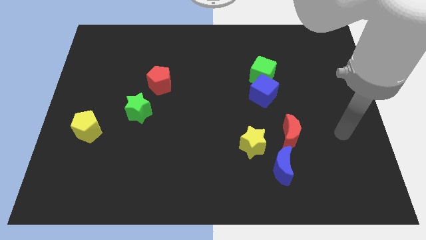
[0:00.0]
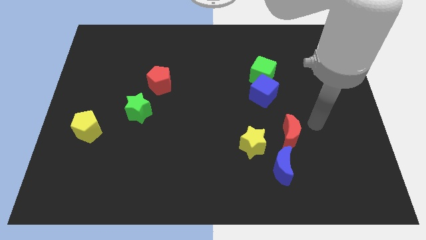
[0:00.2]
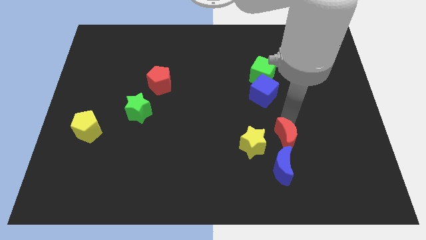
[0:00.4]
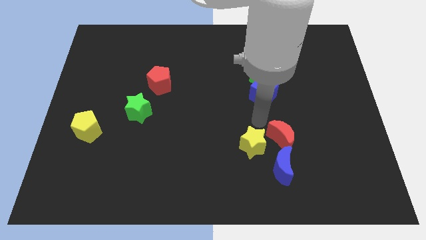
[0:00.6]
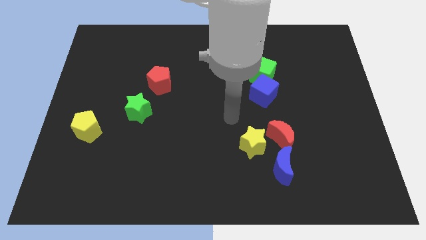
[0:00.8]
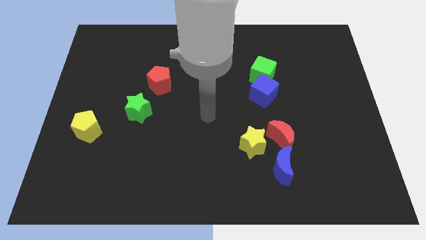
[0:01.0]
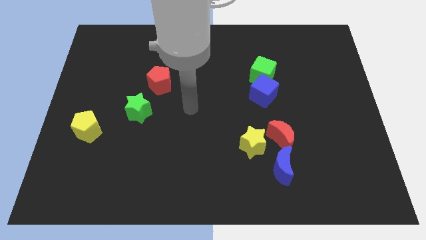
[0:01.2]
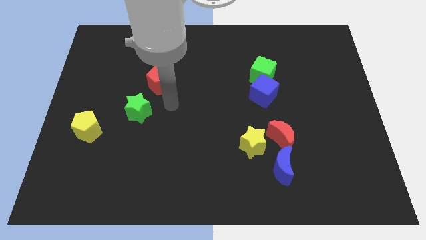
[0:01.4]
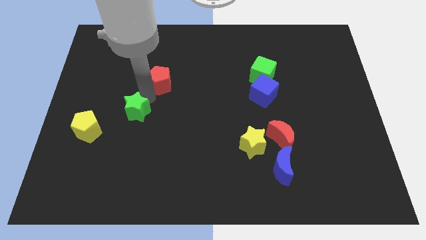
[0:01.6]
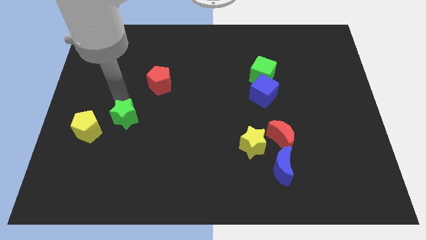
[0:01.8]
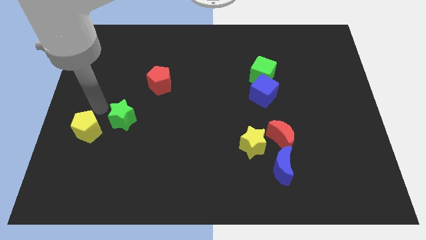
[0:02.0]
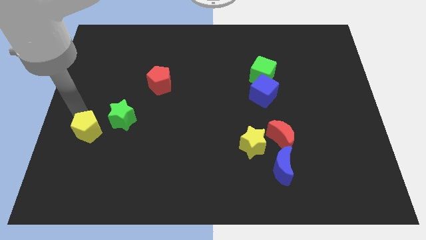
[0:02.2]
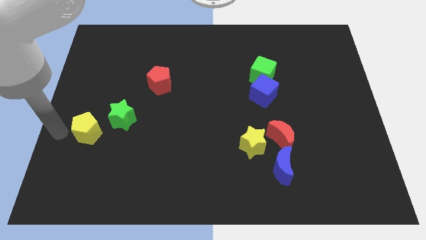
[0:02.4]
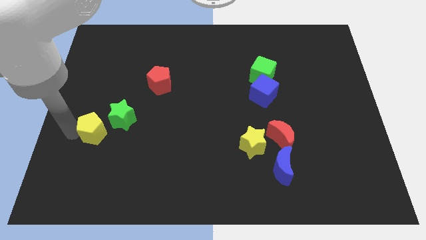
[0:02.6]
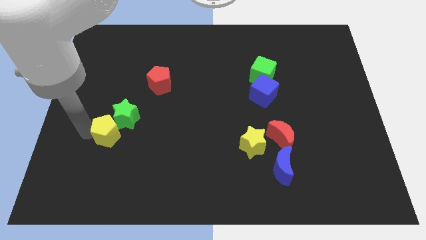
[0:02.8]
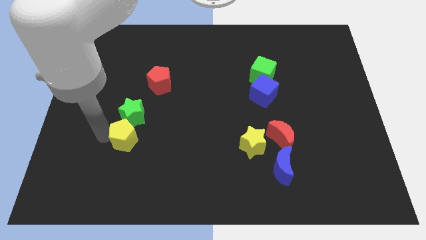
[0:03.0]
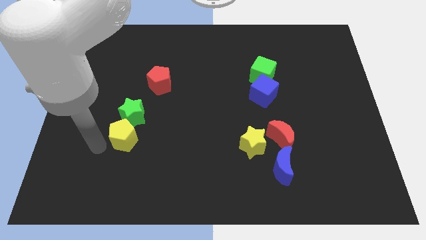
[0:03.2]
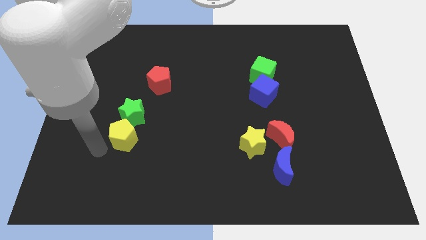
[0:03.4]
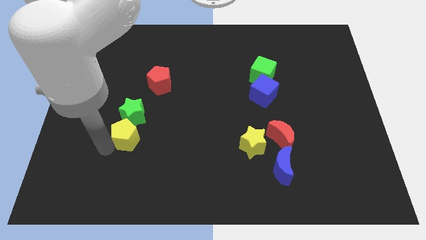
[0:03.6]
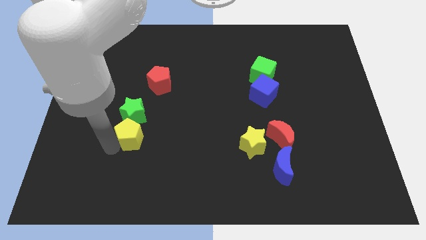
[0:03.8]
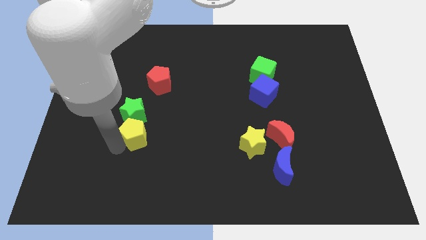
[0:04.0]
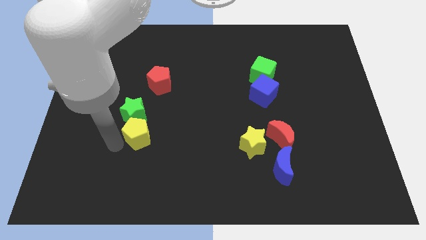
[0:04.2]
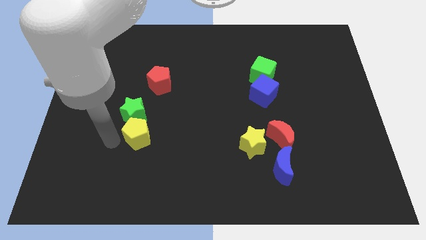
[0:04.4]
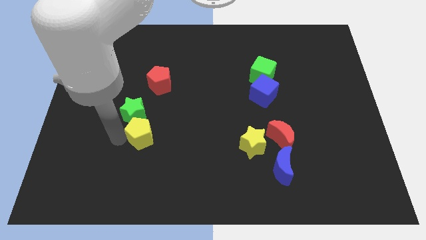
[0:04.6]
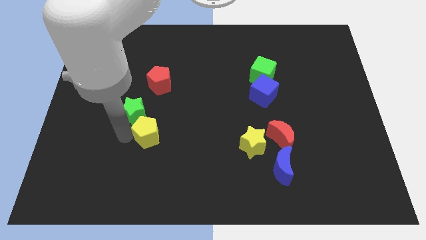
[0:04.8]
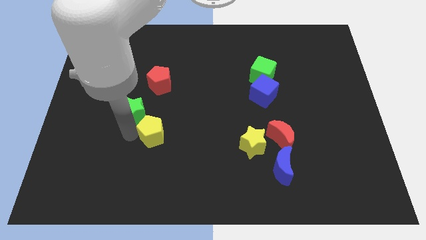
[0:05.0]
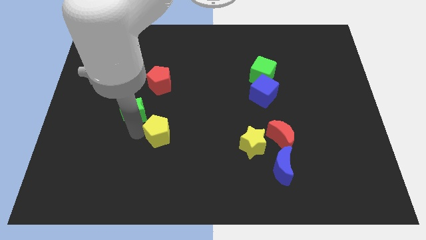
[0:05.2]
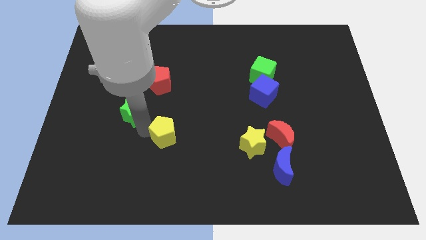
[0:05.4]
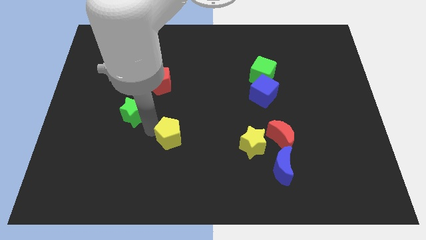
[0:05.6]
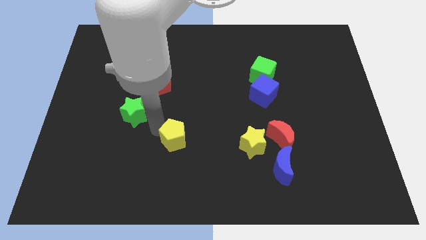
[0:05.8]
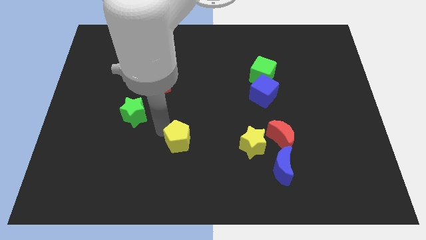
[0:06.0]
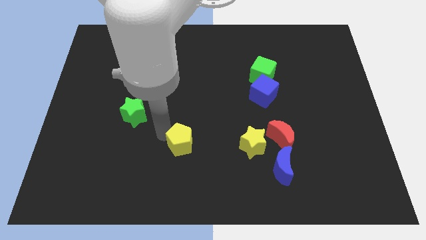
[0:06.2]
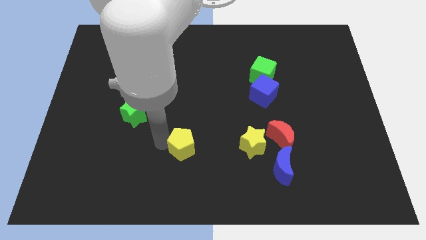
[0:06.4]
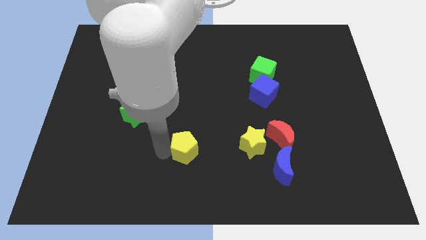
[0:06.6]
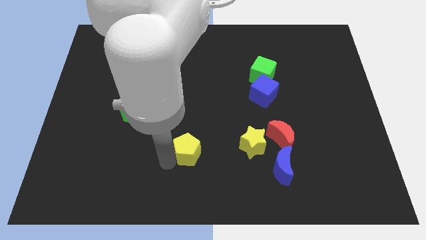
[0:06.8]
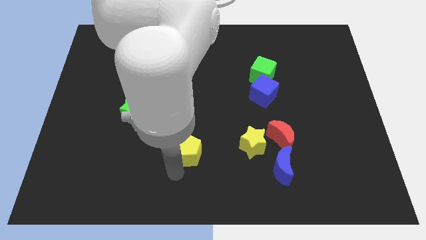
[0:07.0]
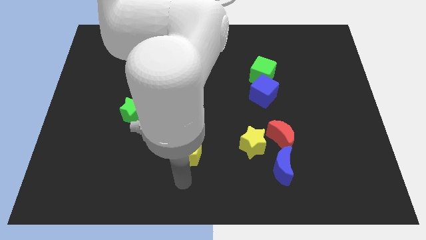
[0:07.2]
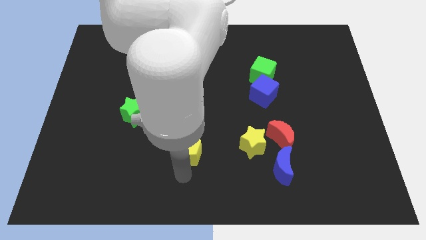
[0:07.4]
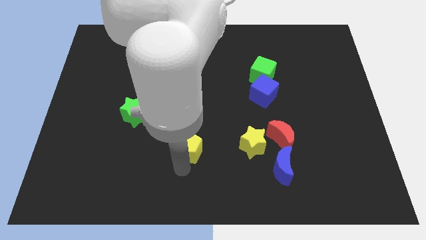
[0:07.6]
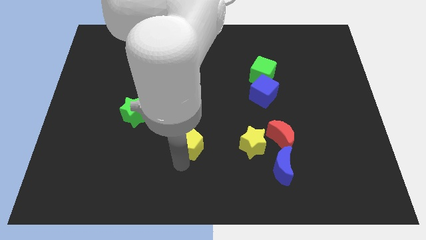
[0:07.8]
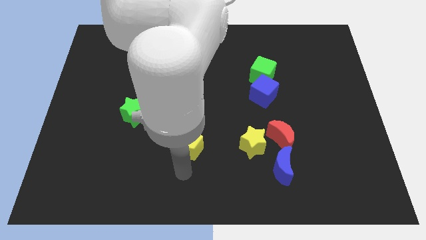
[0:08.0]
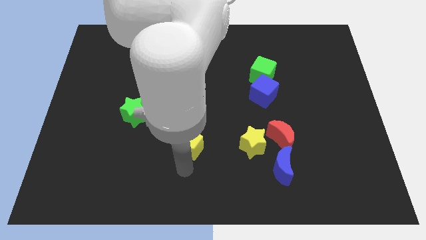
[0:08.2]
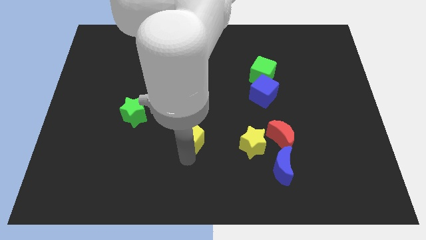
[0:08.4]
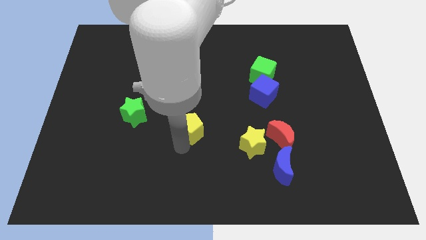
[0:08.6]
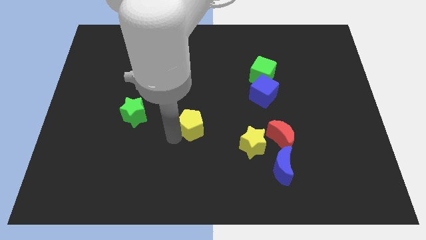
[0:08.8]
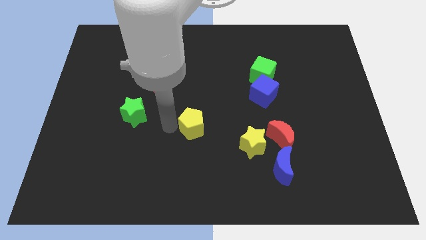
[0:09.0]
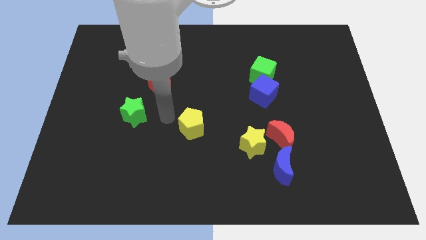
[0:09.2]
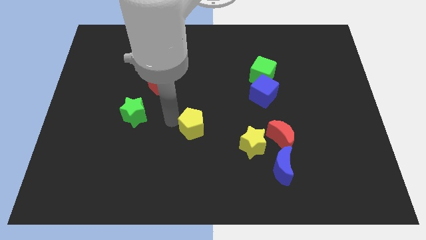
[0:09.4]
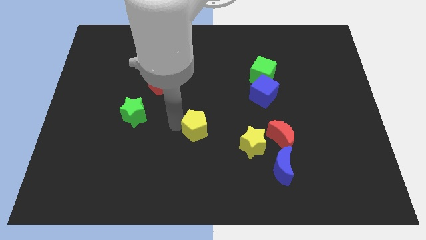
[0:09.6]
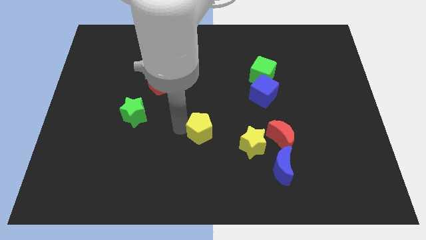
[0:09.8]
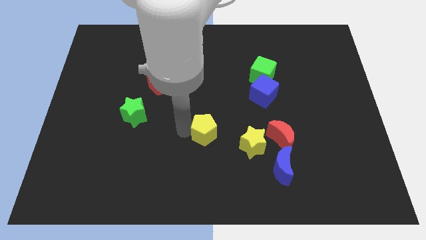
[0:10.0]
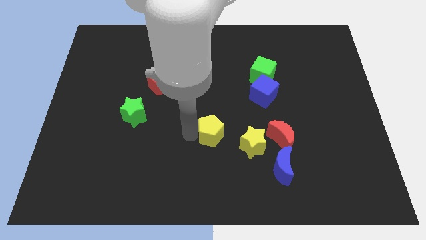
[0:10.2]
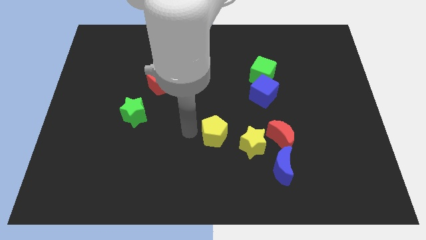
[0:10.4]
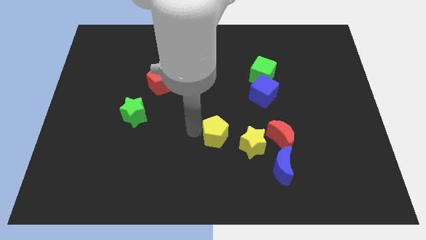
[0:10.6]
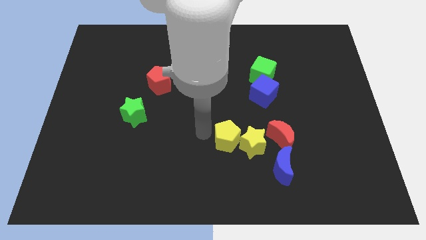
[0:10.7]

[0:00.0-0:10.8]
slide the yellow pentagon to the yellow star

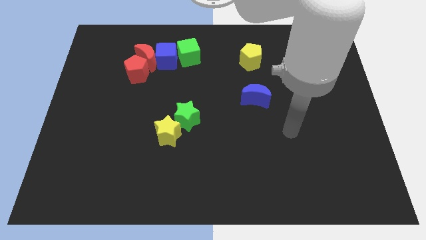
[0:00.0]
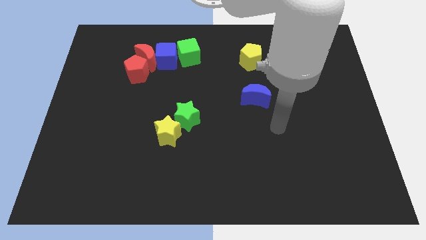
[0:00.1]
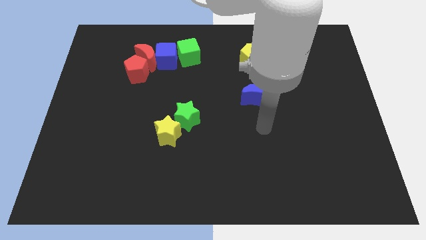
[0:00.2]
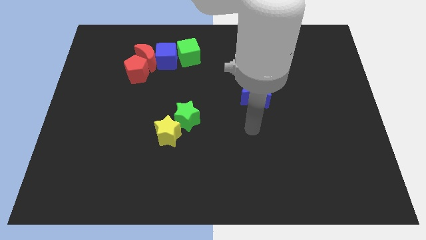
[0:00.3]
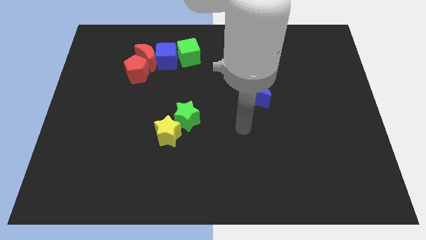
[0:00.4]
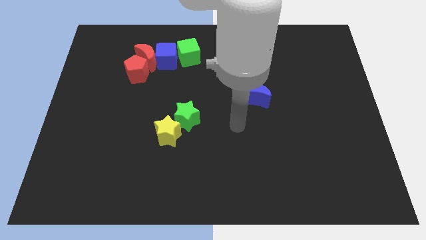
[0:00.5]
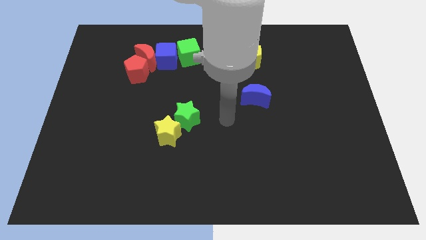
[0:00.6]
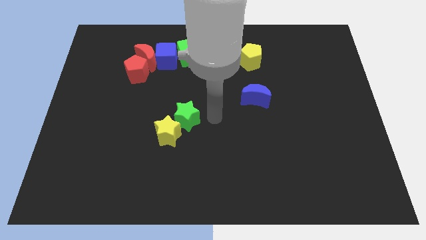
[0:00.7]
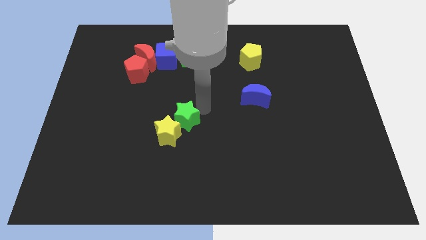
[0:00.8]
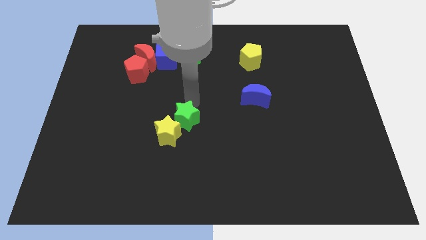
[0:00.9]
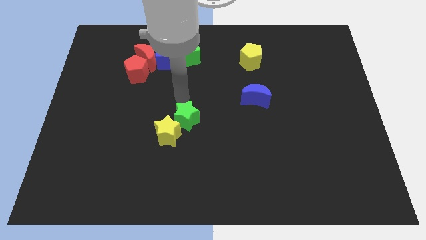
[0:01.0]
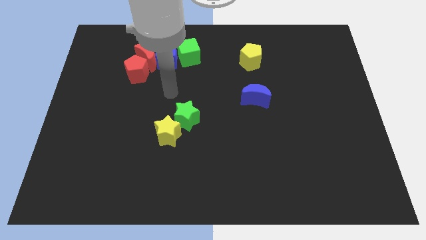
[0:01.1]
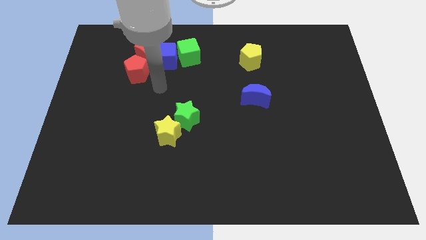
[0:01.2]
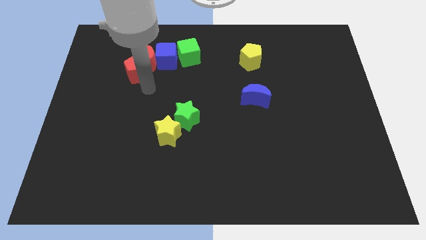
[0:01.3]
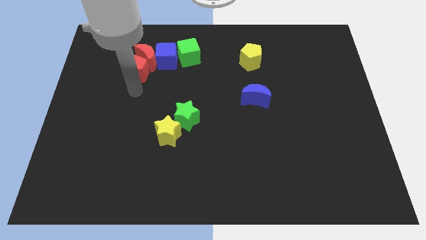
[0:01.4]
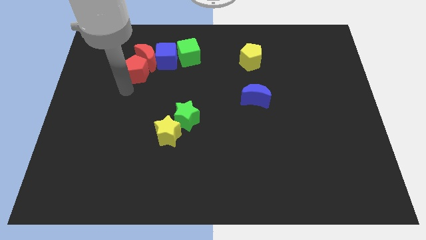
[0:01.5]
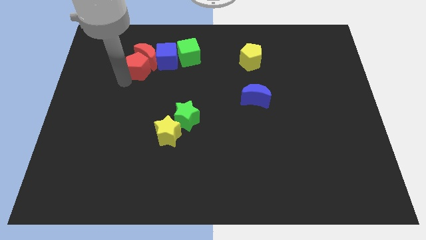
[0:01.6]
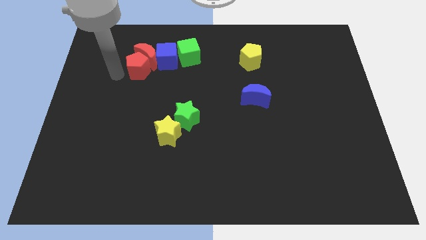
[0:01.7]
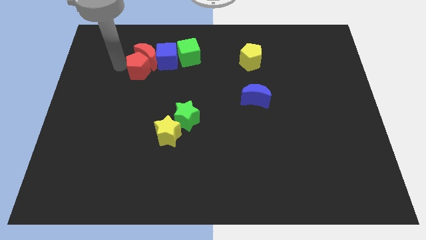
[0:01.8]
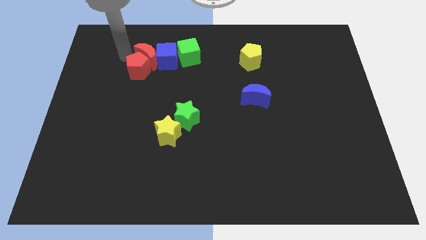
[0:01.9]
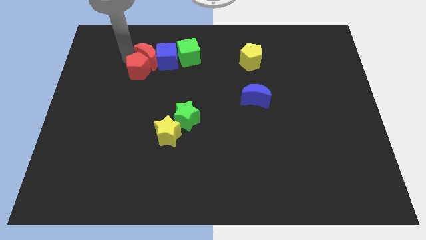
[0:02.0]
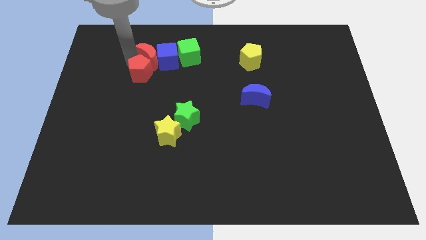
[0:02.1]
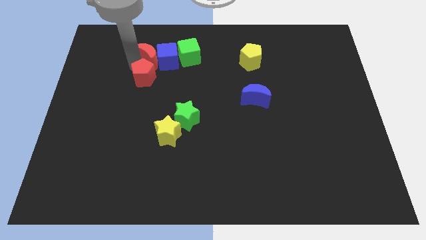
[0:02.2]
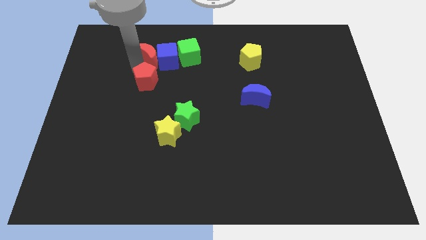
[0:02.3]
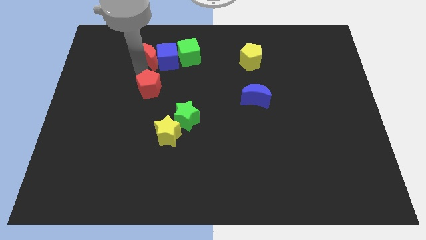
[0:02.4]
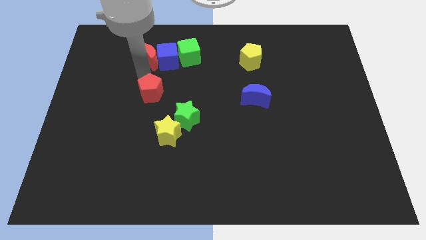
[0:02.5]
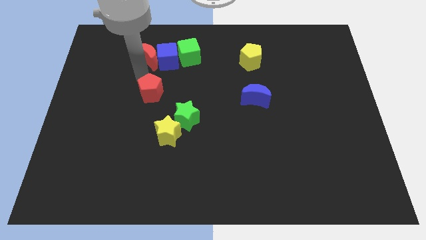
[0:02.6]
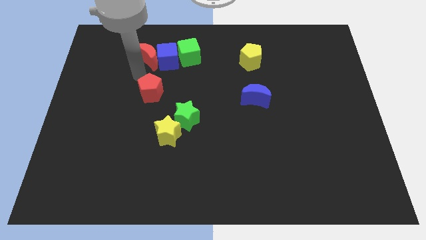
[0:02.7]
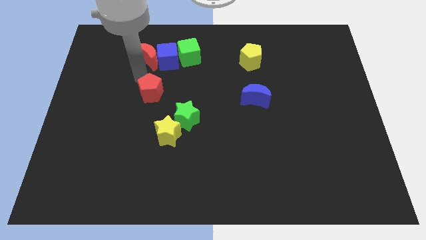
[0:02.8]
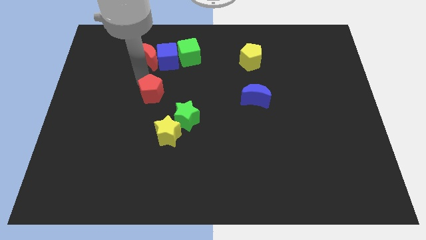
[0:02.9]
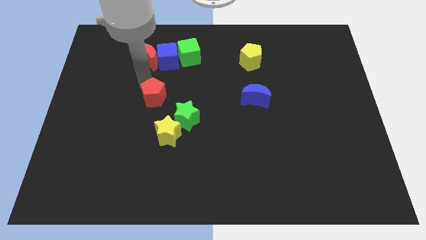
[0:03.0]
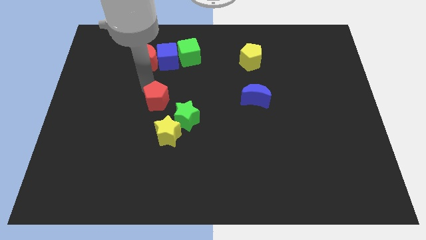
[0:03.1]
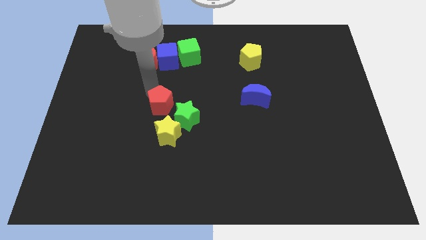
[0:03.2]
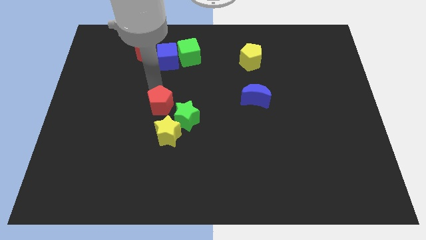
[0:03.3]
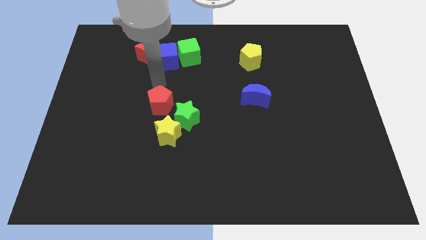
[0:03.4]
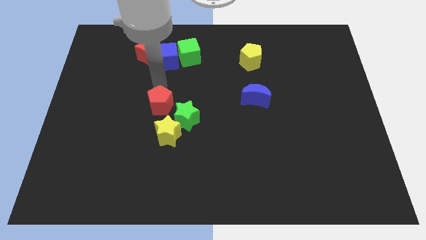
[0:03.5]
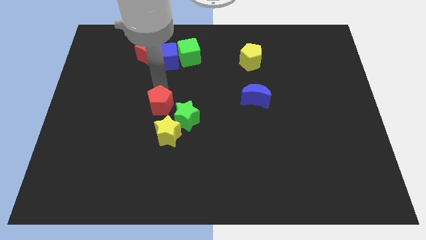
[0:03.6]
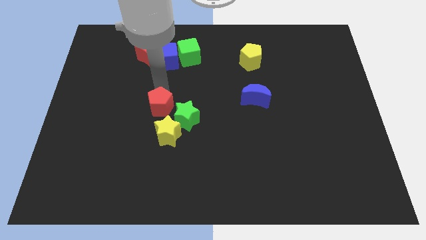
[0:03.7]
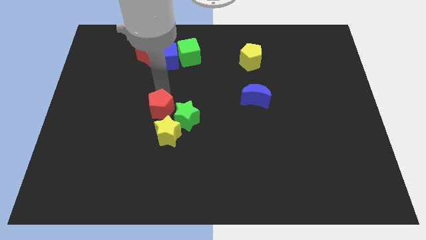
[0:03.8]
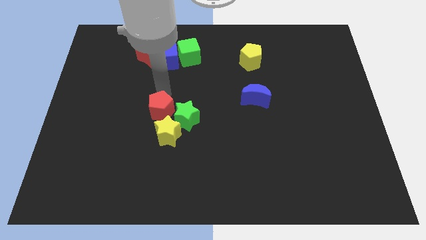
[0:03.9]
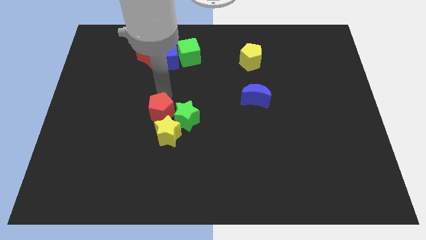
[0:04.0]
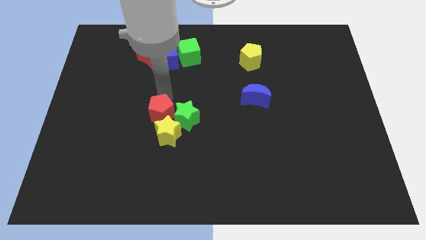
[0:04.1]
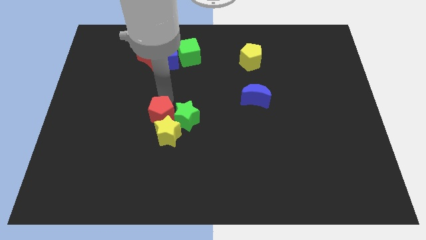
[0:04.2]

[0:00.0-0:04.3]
put the red pentagon to the yellow star
